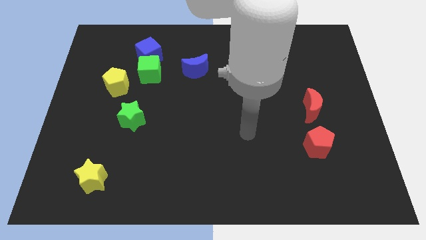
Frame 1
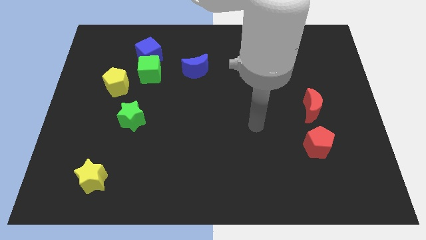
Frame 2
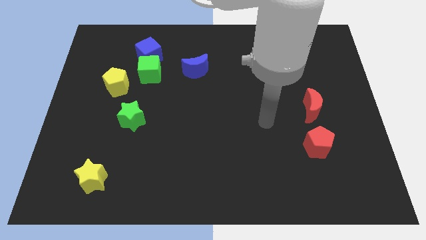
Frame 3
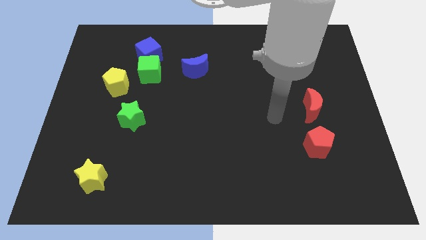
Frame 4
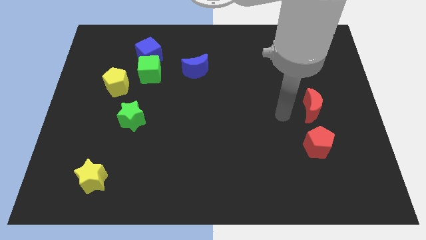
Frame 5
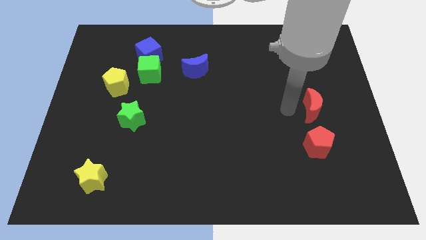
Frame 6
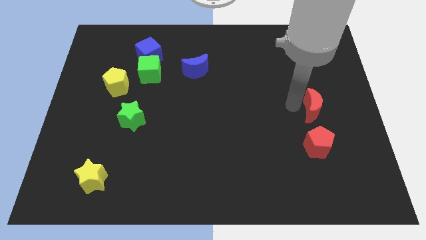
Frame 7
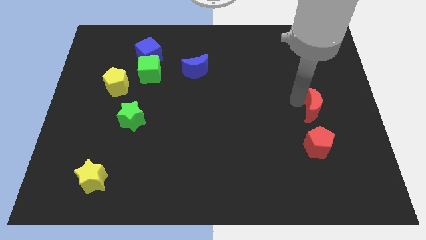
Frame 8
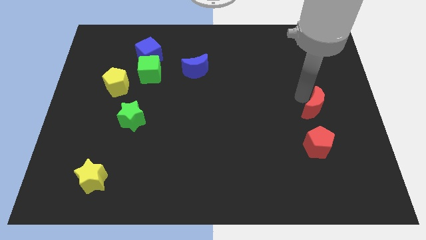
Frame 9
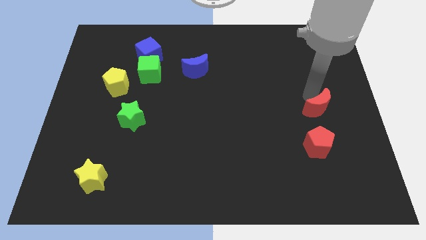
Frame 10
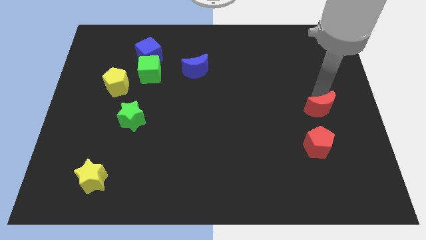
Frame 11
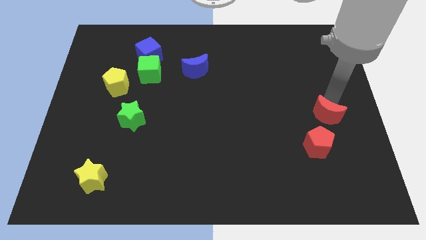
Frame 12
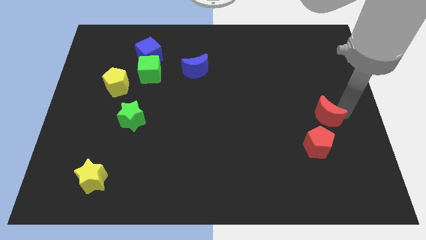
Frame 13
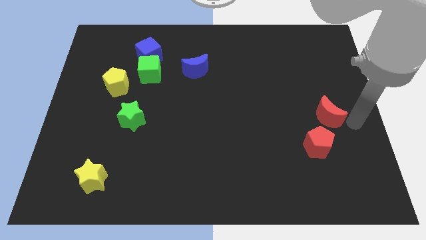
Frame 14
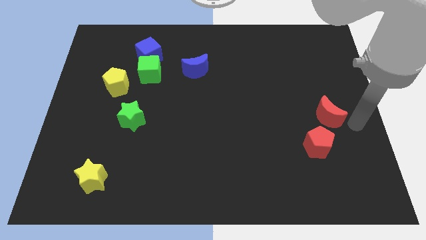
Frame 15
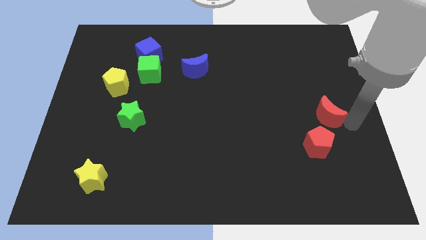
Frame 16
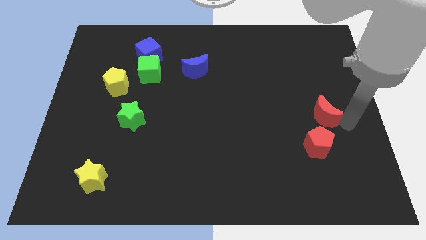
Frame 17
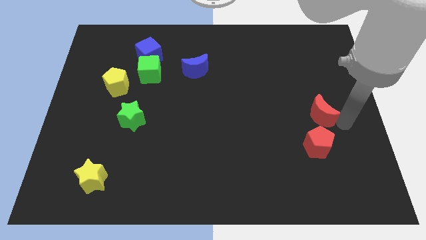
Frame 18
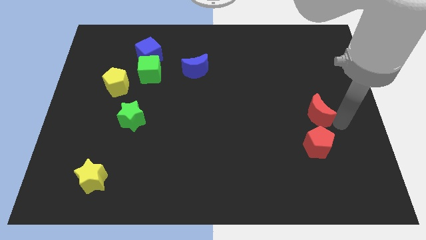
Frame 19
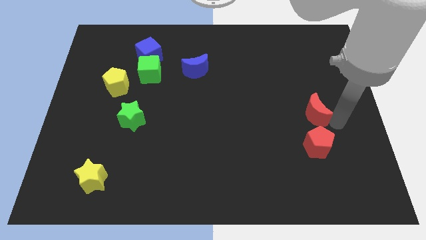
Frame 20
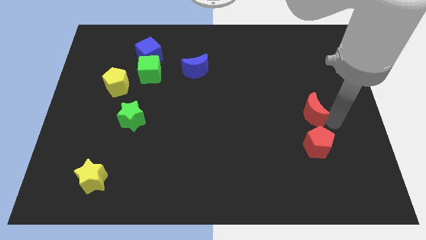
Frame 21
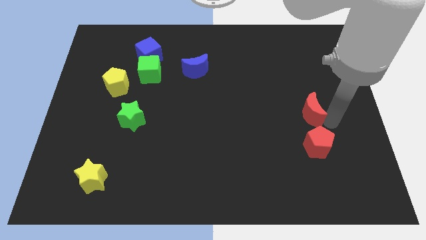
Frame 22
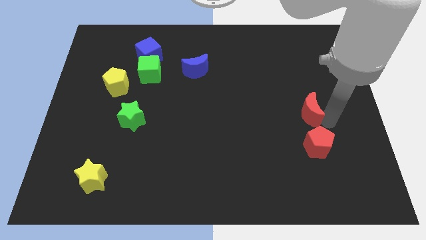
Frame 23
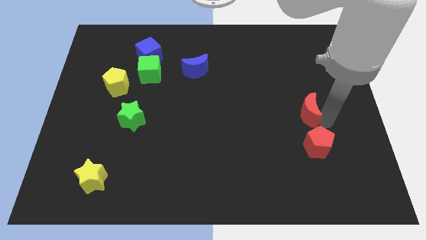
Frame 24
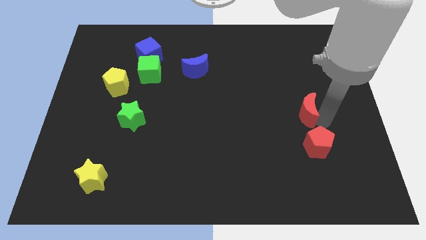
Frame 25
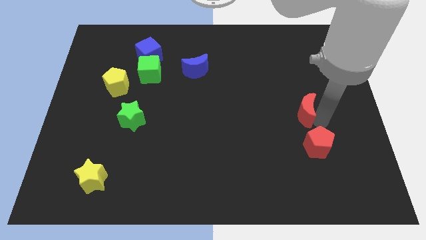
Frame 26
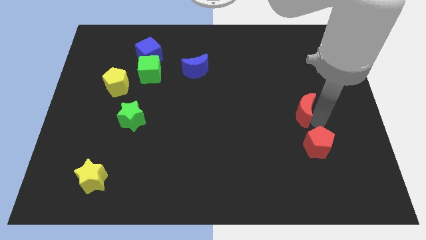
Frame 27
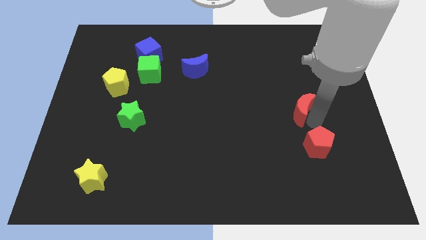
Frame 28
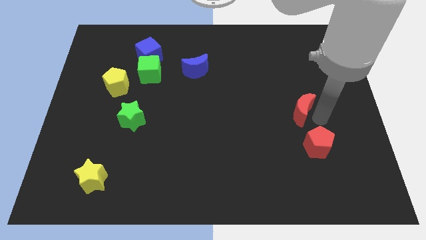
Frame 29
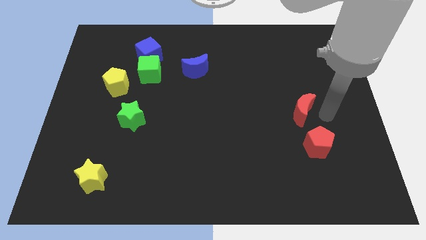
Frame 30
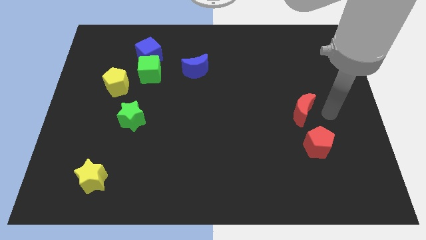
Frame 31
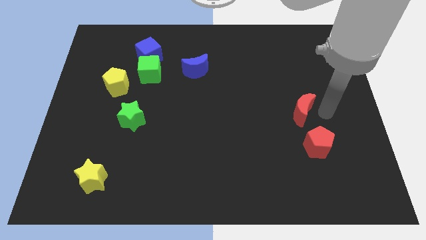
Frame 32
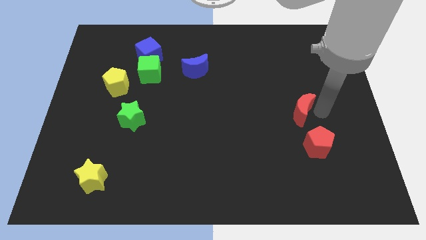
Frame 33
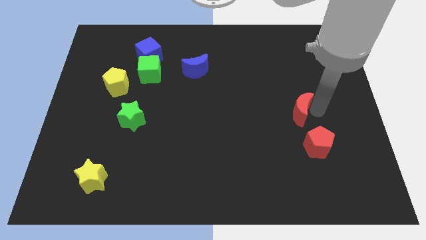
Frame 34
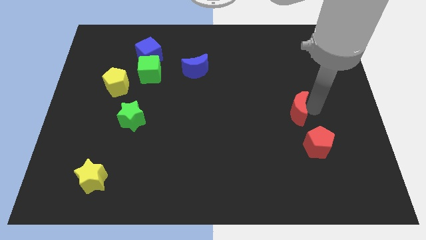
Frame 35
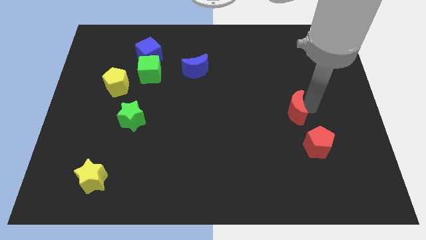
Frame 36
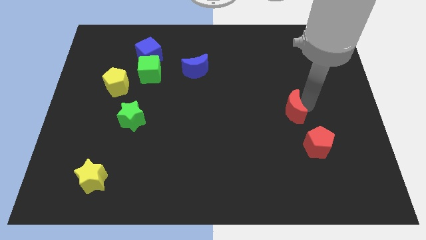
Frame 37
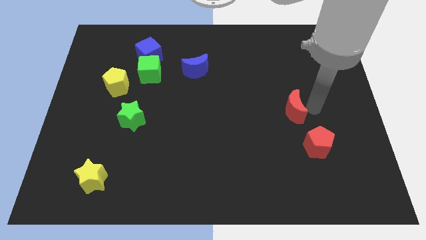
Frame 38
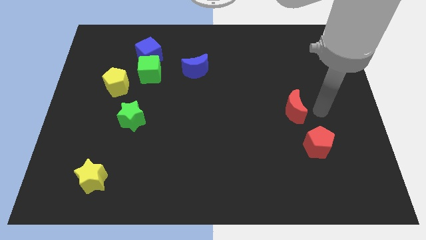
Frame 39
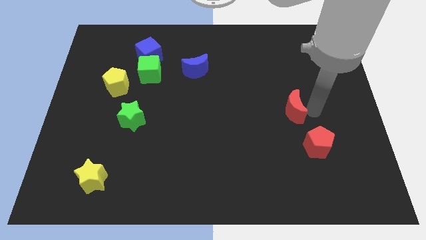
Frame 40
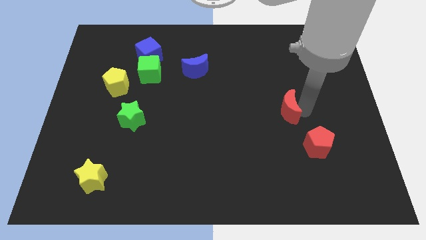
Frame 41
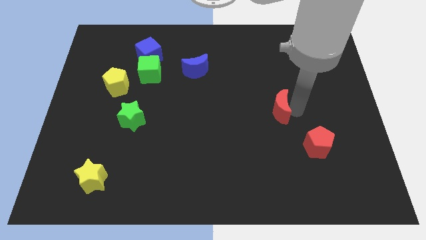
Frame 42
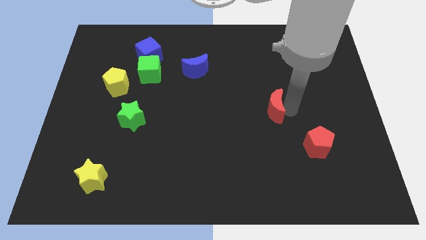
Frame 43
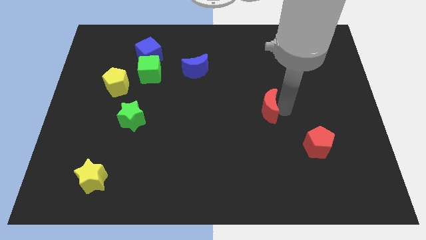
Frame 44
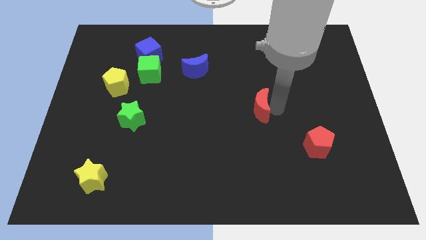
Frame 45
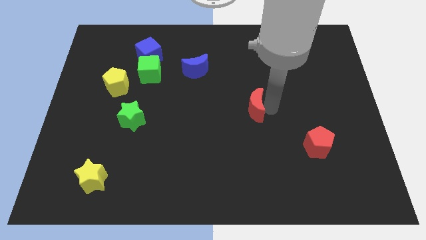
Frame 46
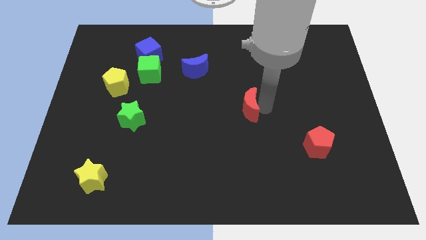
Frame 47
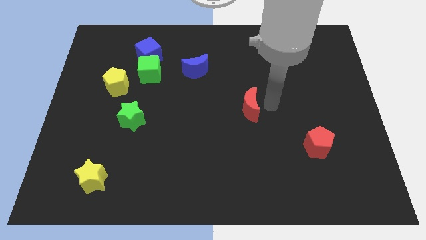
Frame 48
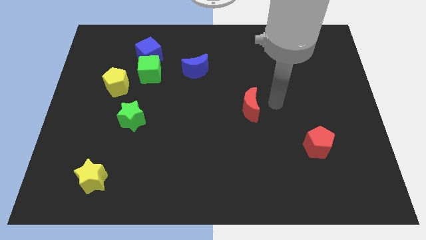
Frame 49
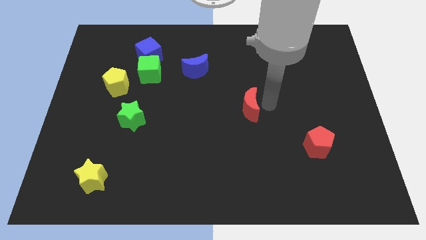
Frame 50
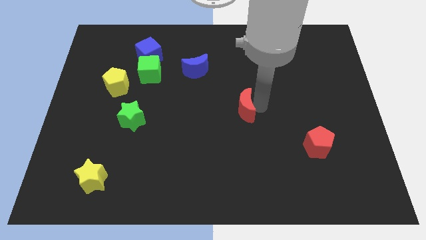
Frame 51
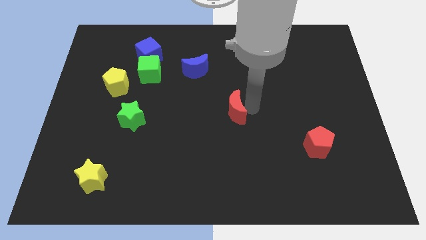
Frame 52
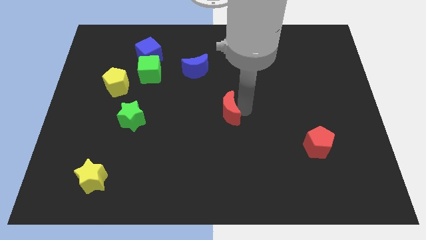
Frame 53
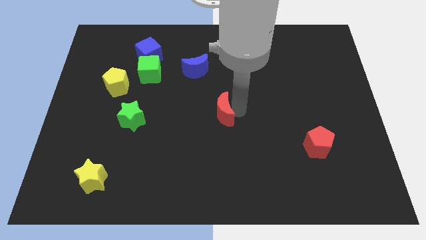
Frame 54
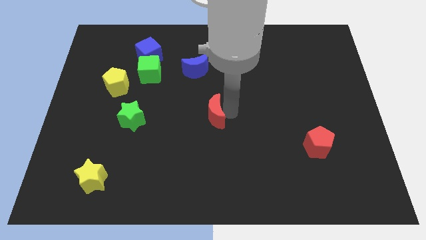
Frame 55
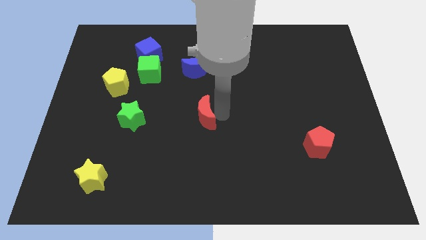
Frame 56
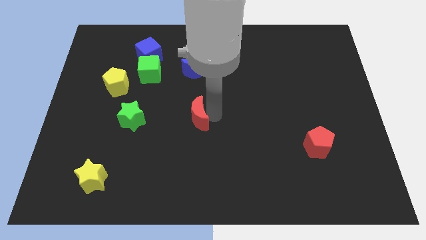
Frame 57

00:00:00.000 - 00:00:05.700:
slide the red moon to the right of the green star

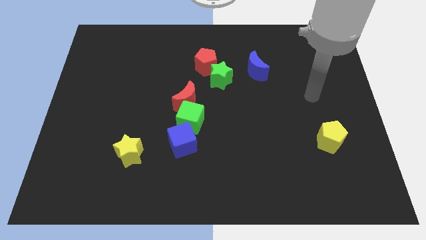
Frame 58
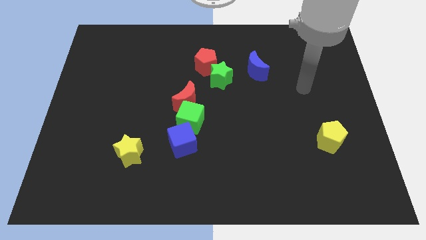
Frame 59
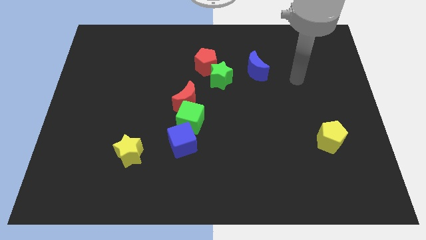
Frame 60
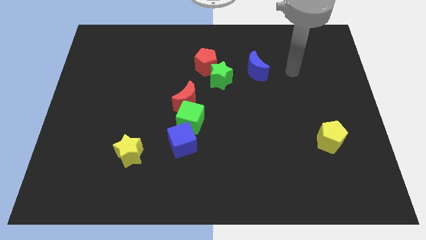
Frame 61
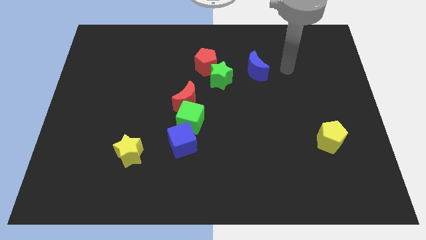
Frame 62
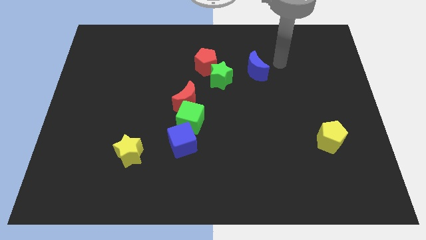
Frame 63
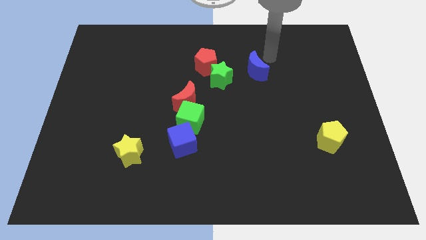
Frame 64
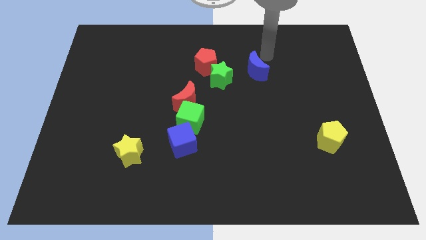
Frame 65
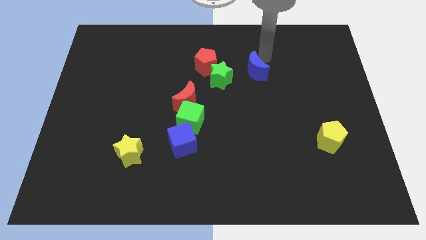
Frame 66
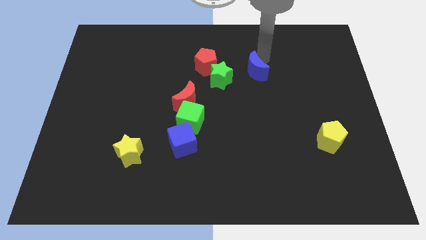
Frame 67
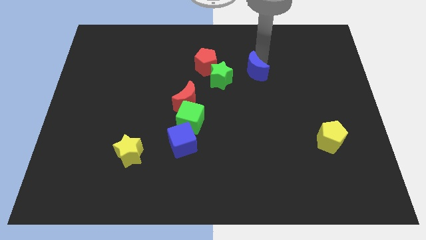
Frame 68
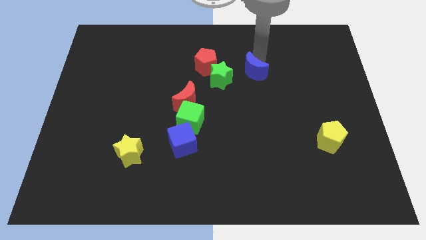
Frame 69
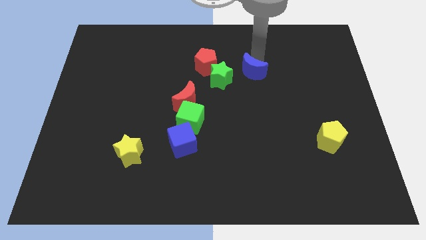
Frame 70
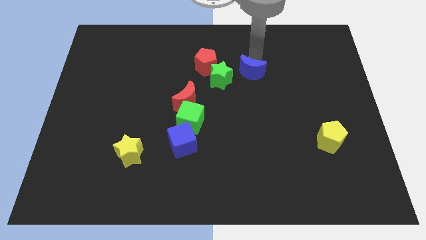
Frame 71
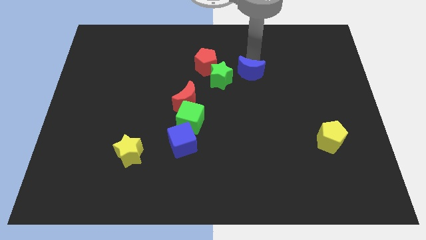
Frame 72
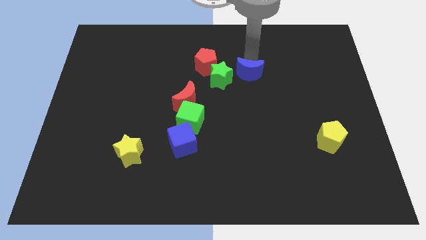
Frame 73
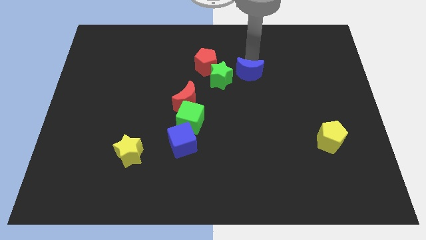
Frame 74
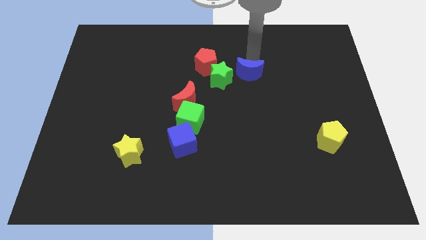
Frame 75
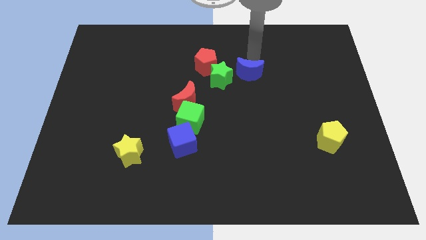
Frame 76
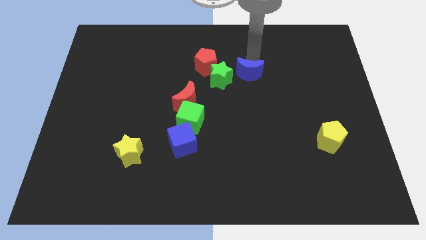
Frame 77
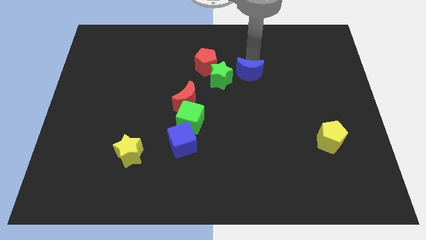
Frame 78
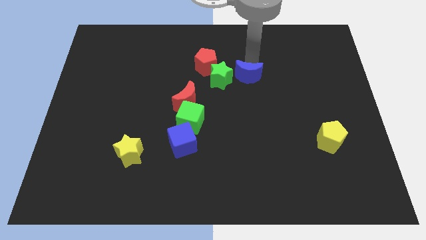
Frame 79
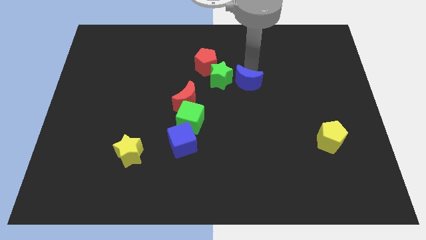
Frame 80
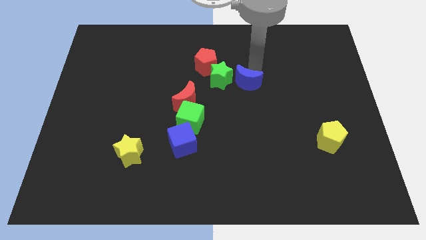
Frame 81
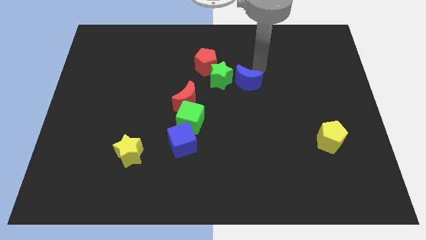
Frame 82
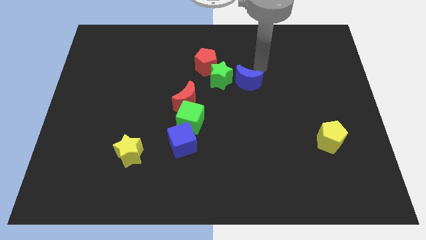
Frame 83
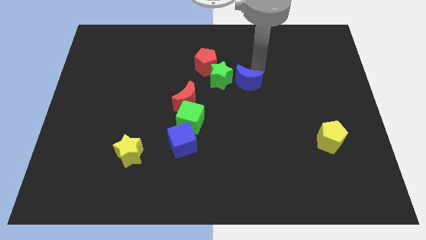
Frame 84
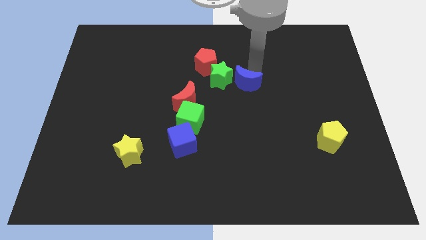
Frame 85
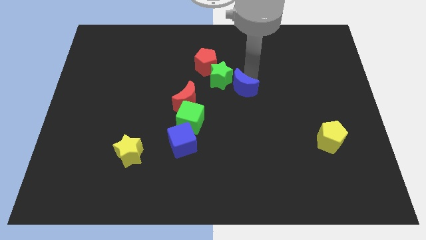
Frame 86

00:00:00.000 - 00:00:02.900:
slide the blue moon just right of the red moon
